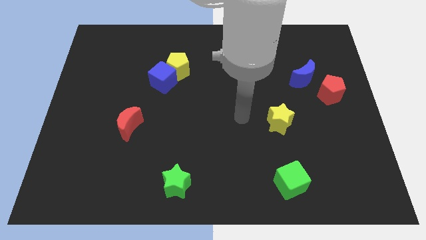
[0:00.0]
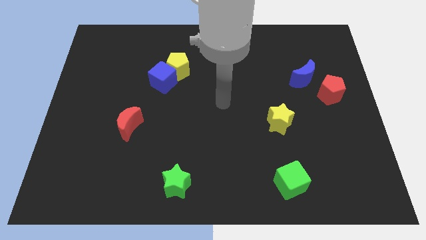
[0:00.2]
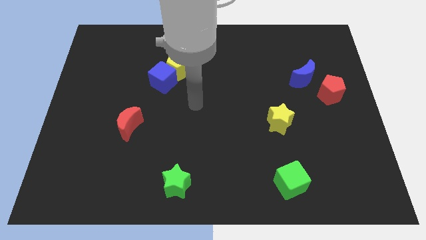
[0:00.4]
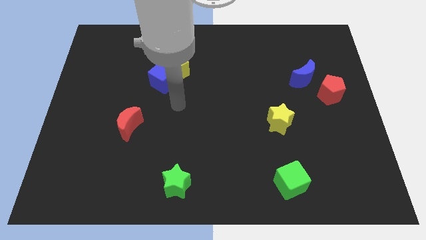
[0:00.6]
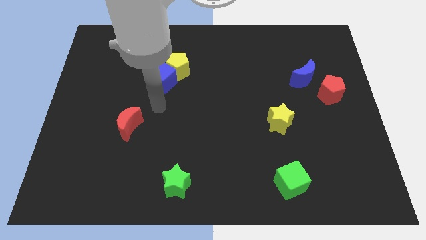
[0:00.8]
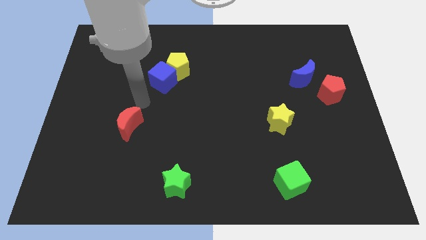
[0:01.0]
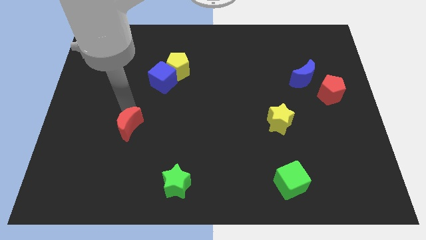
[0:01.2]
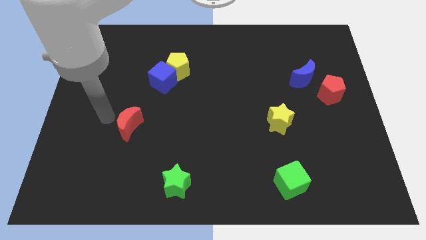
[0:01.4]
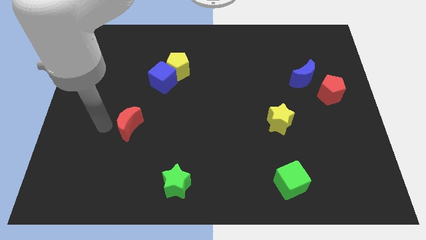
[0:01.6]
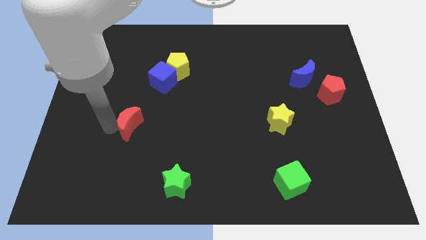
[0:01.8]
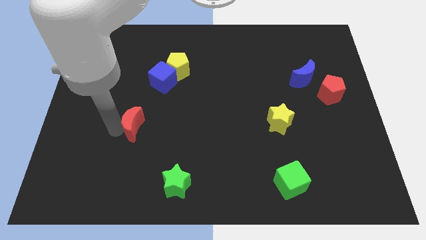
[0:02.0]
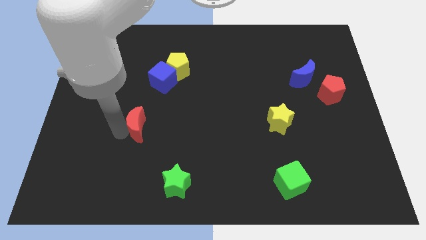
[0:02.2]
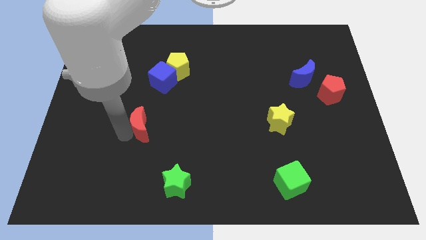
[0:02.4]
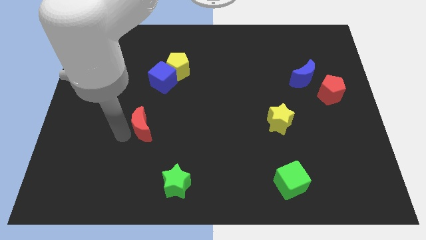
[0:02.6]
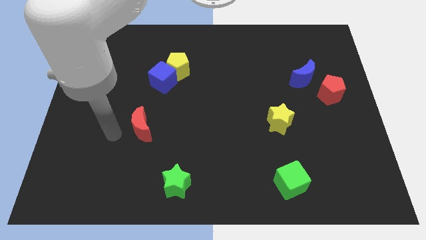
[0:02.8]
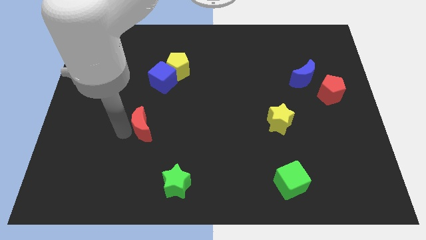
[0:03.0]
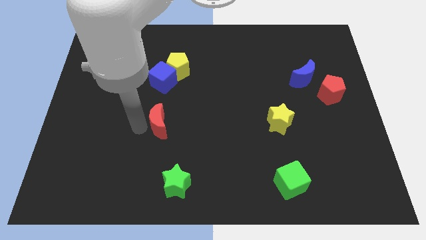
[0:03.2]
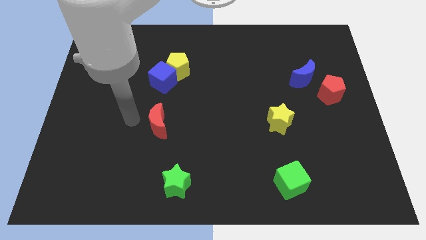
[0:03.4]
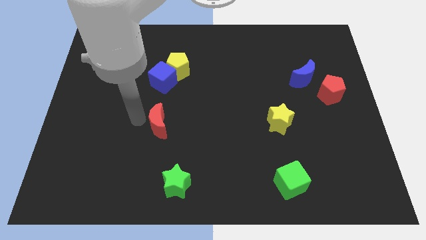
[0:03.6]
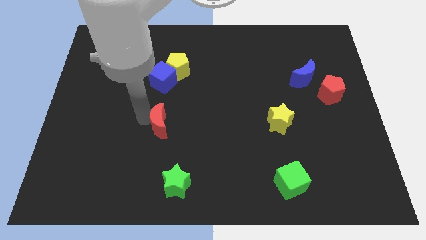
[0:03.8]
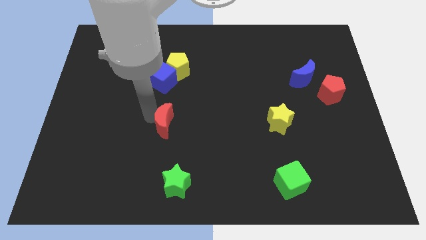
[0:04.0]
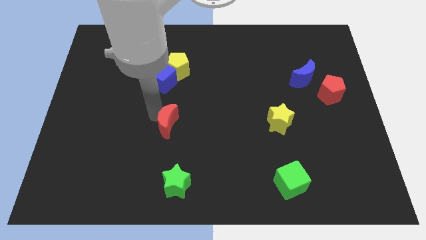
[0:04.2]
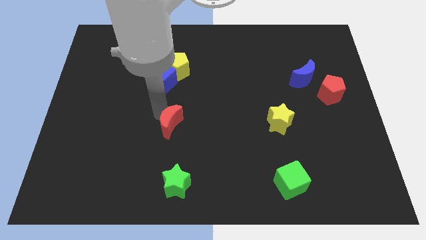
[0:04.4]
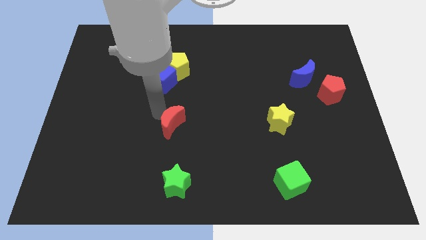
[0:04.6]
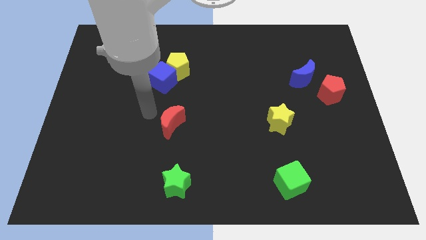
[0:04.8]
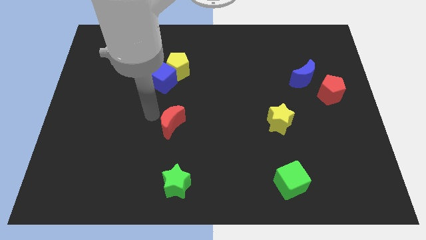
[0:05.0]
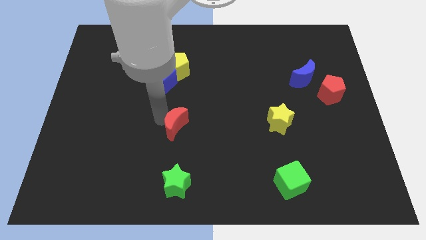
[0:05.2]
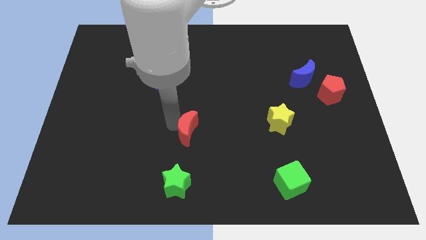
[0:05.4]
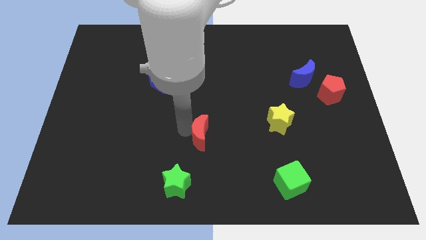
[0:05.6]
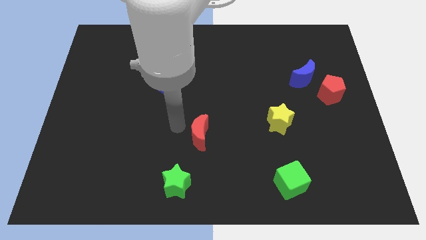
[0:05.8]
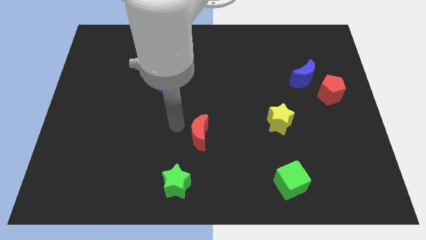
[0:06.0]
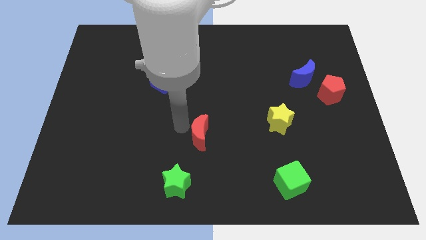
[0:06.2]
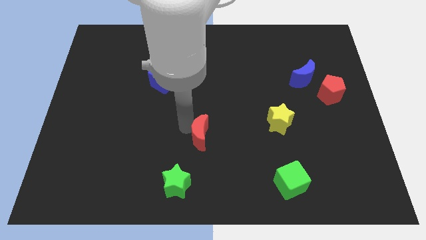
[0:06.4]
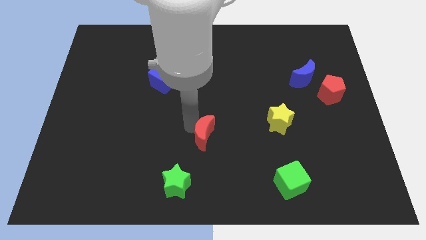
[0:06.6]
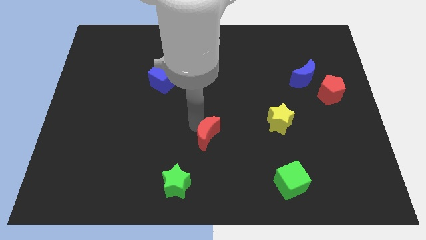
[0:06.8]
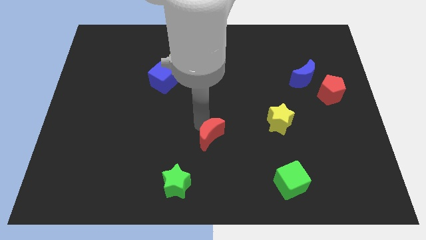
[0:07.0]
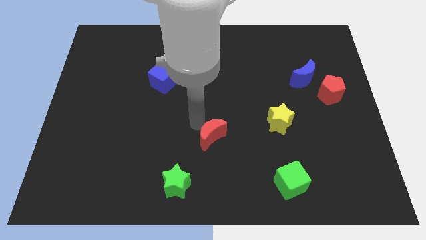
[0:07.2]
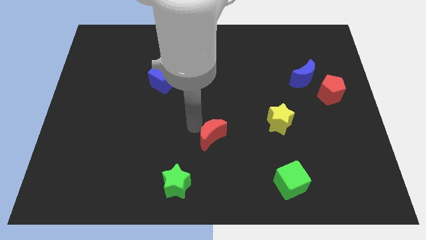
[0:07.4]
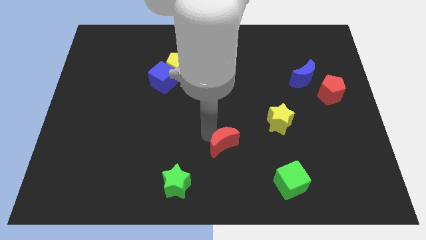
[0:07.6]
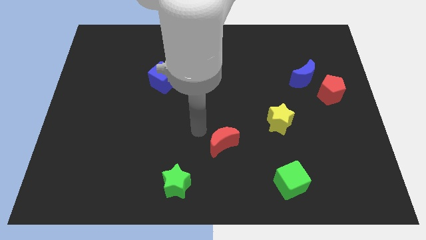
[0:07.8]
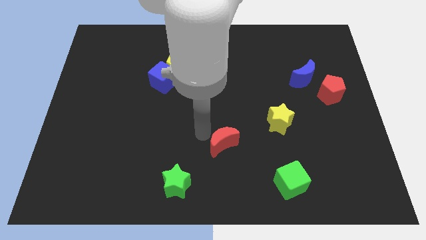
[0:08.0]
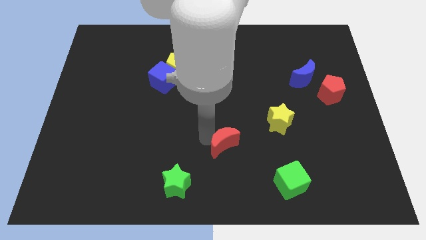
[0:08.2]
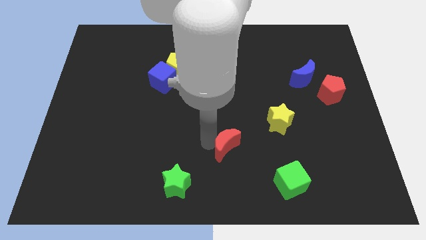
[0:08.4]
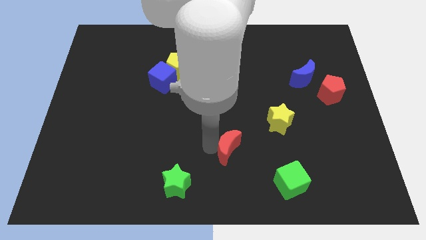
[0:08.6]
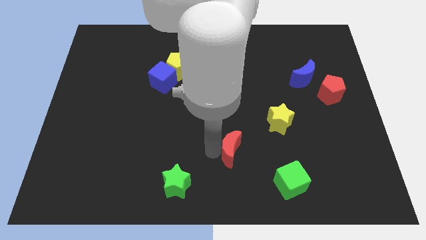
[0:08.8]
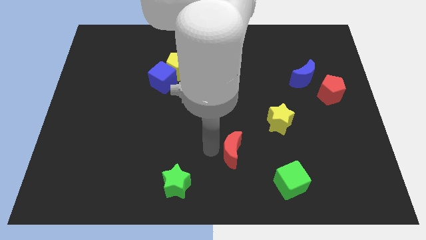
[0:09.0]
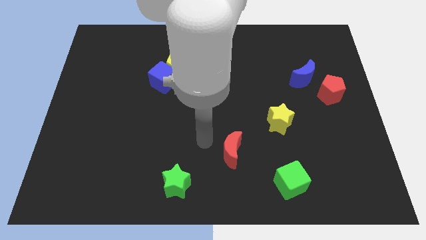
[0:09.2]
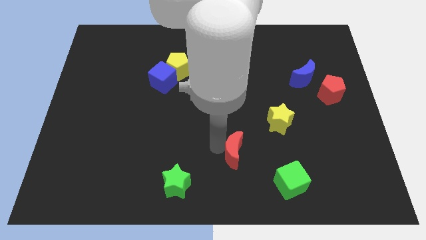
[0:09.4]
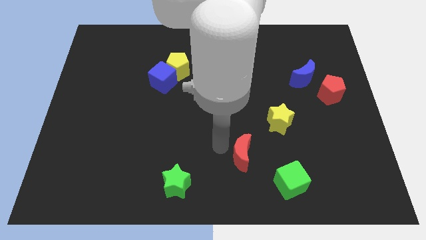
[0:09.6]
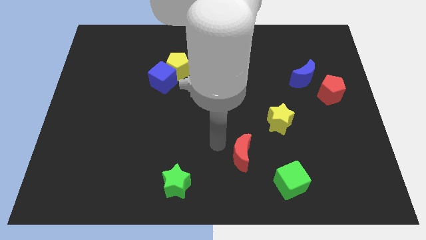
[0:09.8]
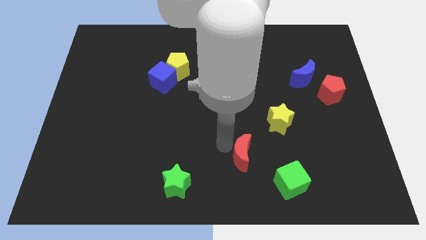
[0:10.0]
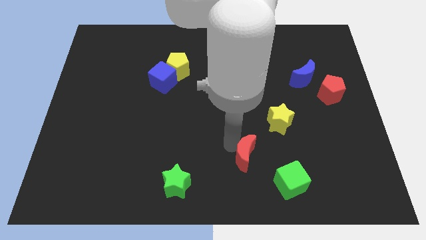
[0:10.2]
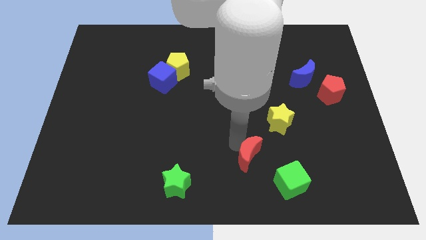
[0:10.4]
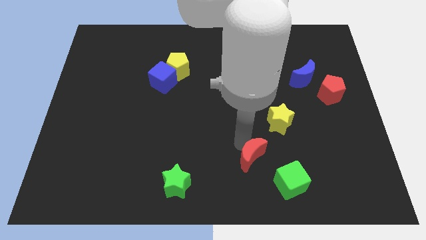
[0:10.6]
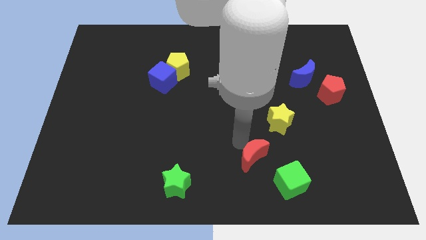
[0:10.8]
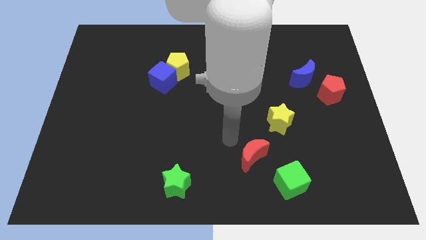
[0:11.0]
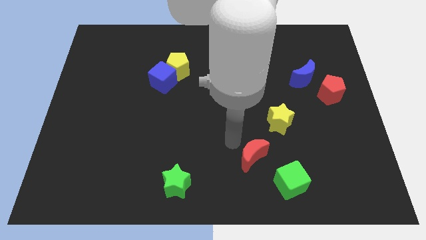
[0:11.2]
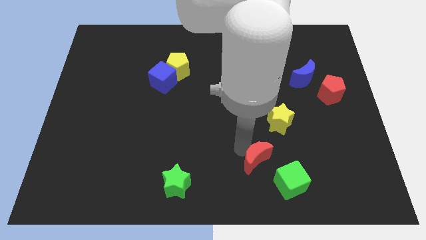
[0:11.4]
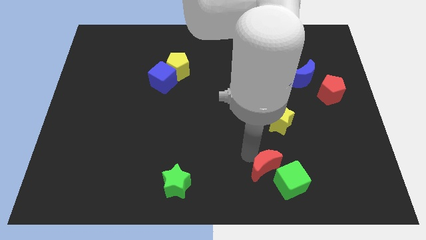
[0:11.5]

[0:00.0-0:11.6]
put the red moon next to the green cube
